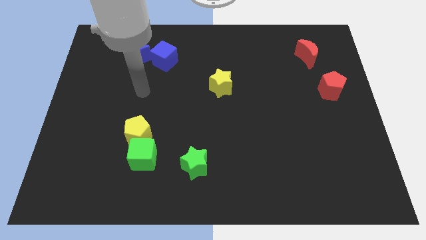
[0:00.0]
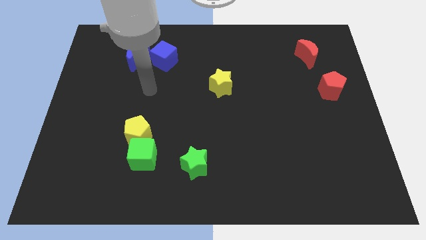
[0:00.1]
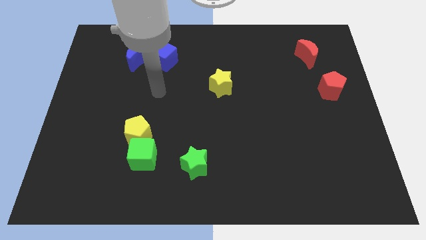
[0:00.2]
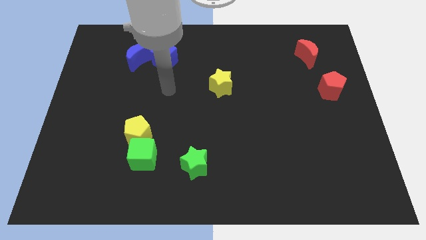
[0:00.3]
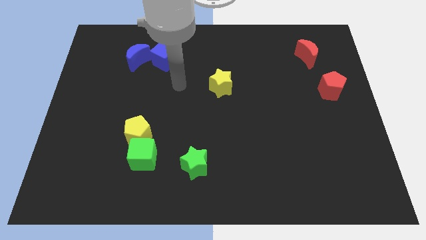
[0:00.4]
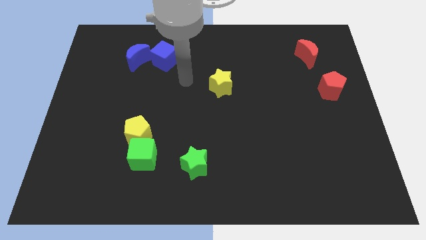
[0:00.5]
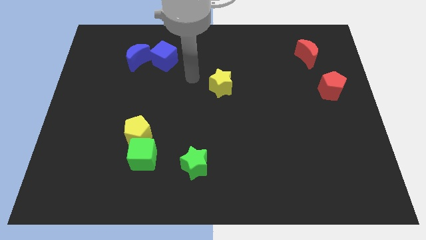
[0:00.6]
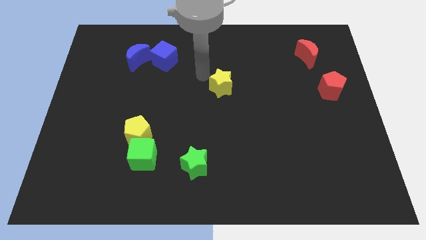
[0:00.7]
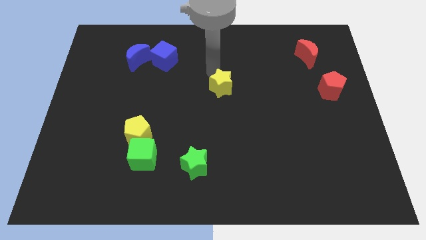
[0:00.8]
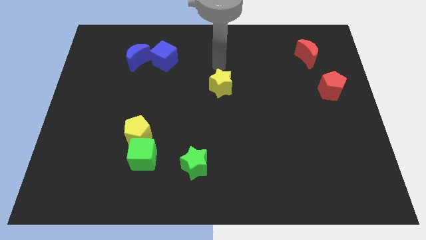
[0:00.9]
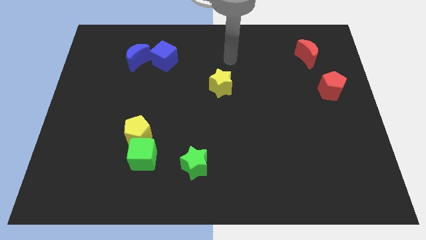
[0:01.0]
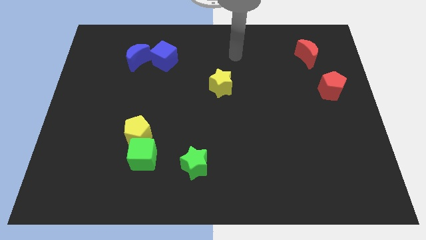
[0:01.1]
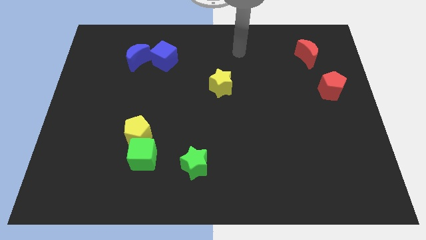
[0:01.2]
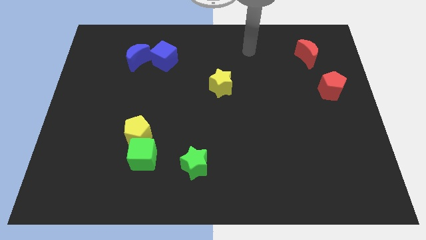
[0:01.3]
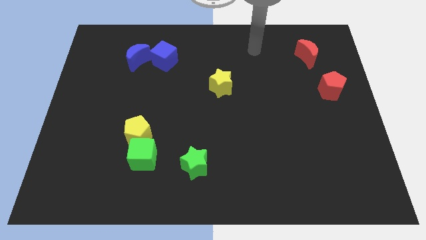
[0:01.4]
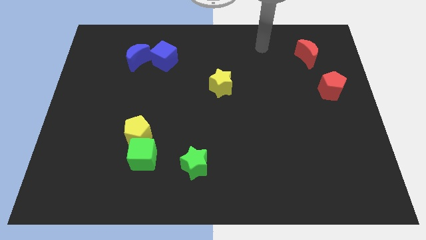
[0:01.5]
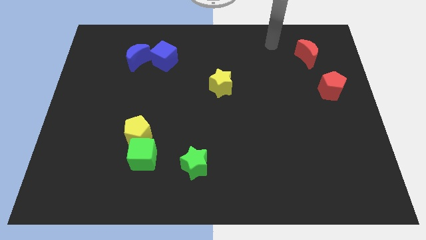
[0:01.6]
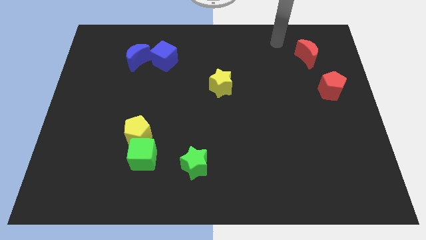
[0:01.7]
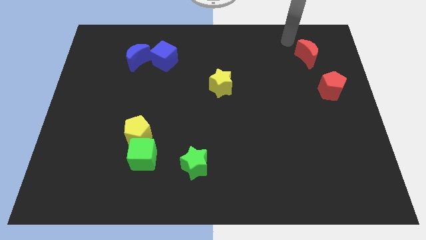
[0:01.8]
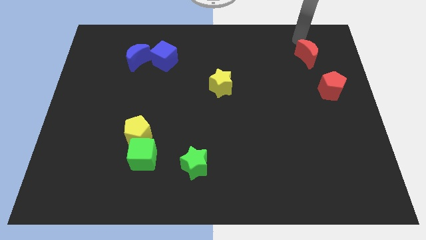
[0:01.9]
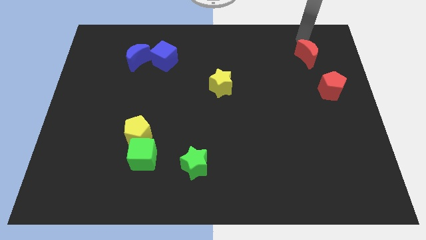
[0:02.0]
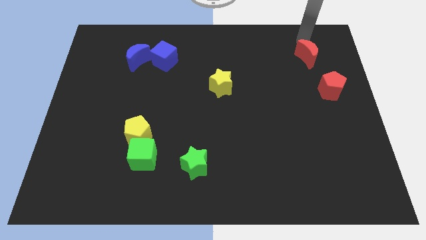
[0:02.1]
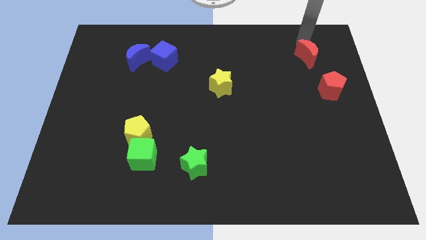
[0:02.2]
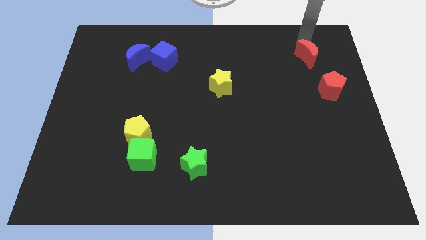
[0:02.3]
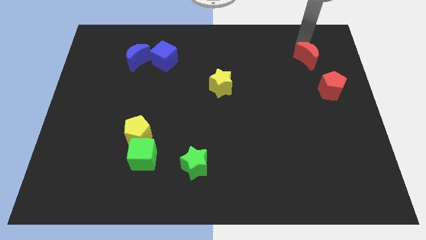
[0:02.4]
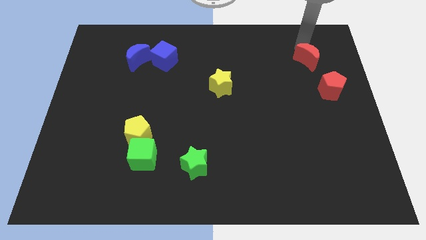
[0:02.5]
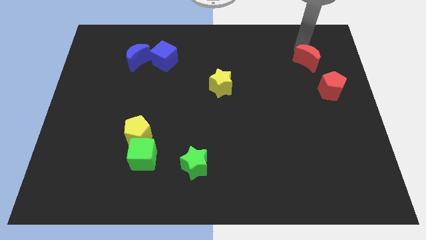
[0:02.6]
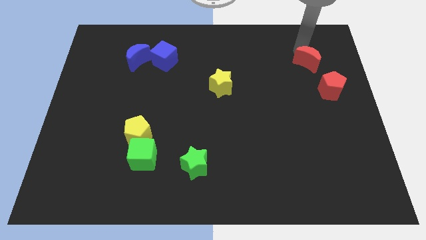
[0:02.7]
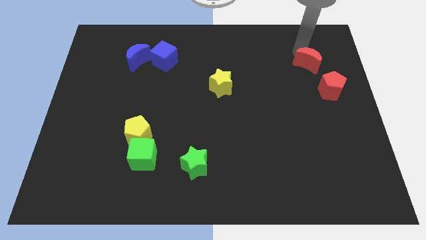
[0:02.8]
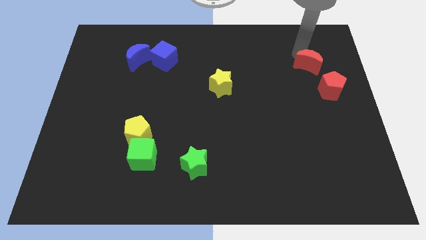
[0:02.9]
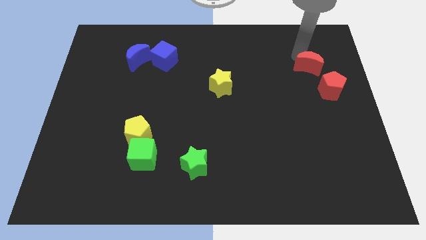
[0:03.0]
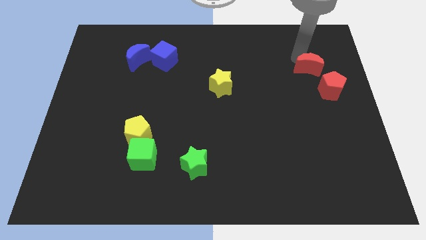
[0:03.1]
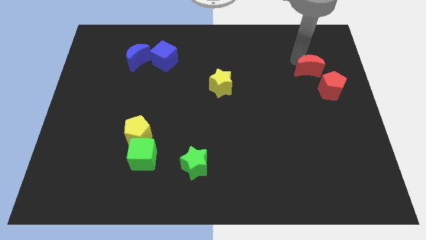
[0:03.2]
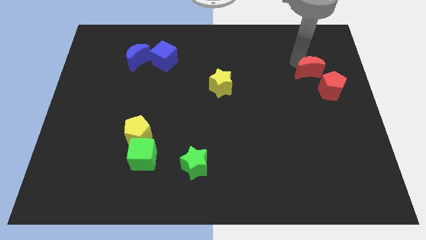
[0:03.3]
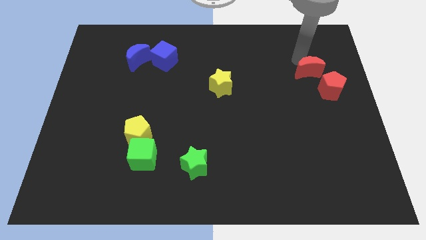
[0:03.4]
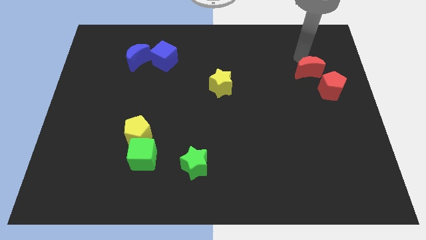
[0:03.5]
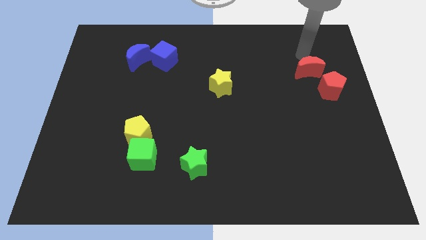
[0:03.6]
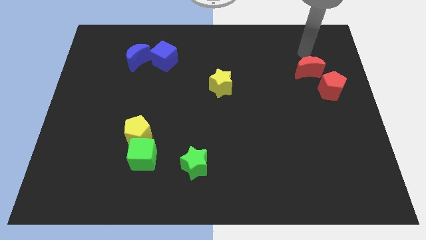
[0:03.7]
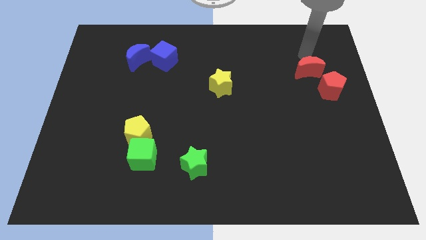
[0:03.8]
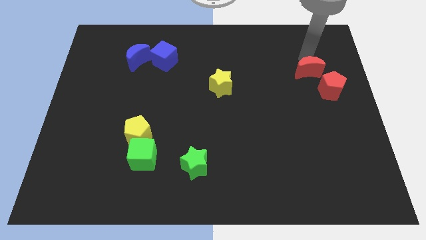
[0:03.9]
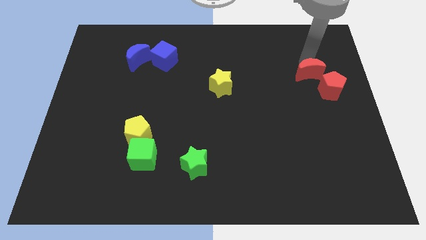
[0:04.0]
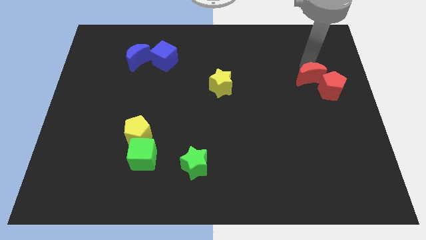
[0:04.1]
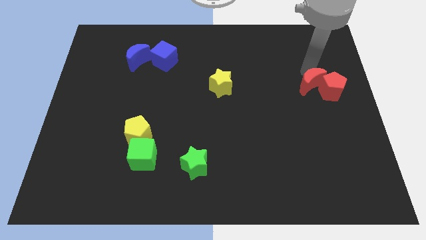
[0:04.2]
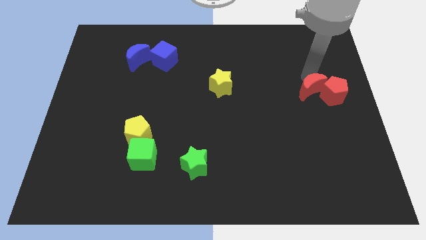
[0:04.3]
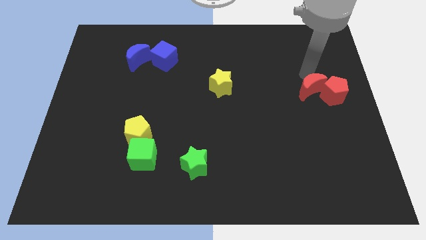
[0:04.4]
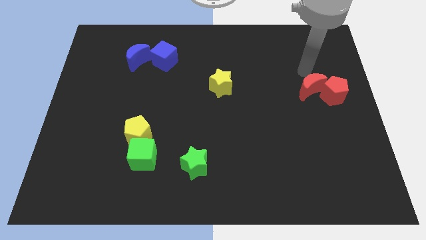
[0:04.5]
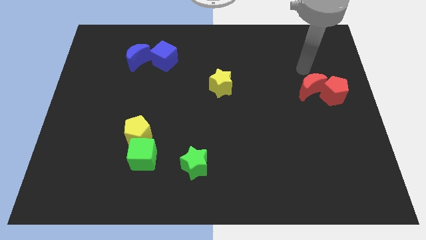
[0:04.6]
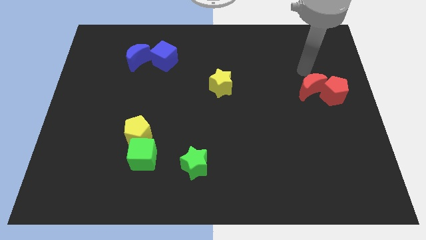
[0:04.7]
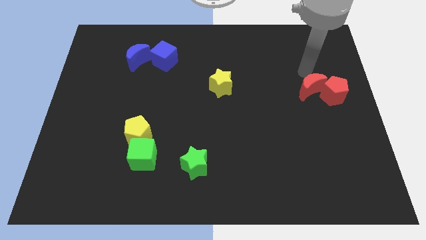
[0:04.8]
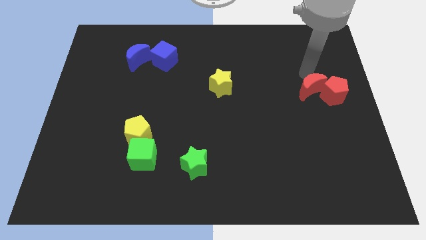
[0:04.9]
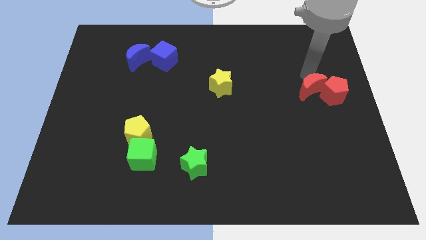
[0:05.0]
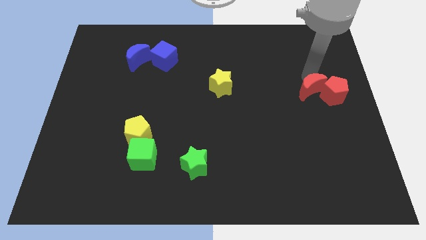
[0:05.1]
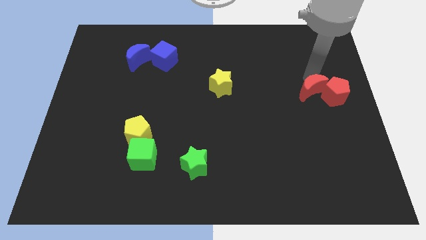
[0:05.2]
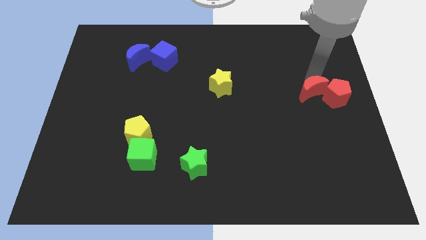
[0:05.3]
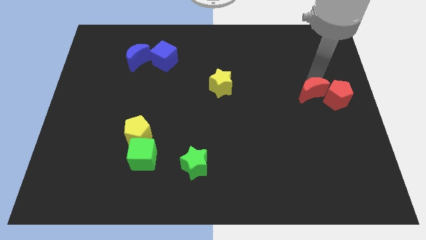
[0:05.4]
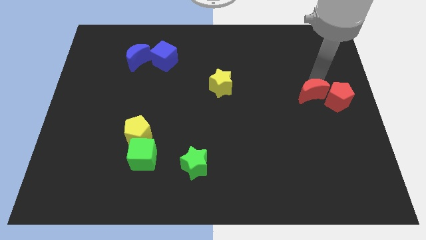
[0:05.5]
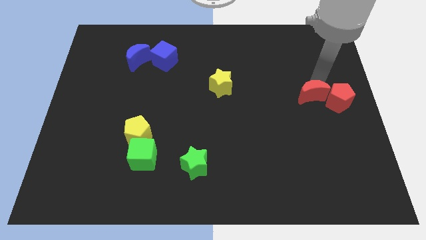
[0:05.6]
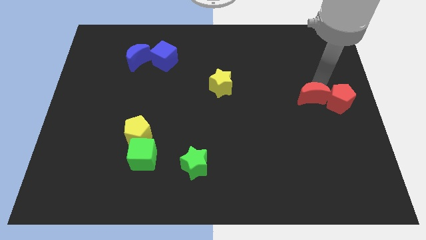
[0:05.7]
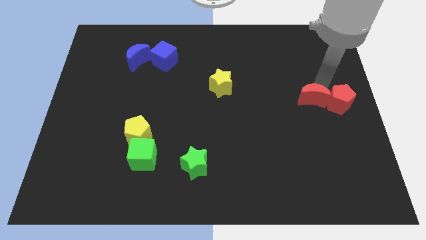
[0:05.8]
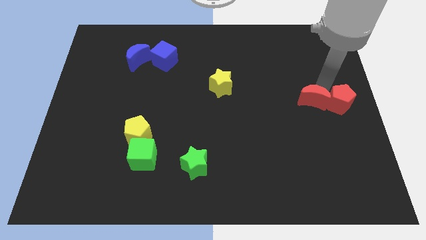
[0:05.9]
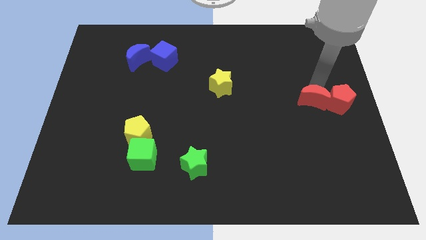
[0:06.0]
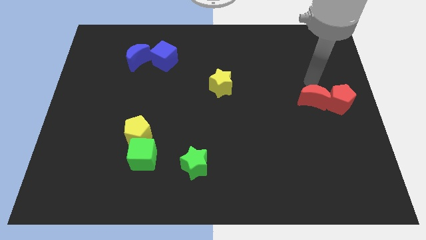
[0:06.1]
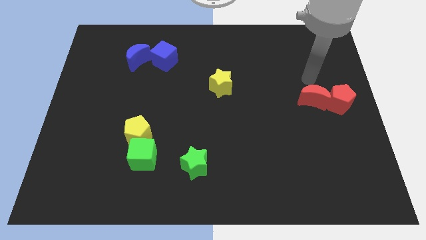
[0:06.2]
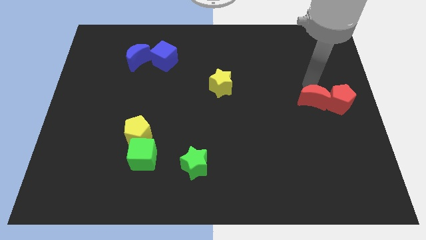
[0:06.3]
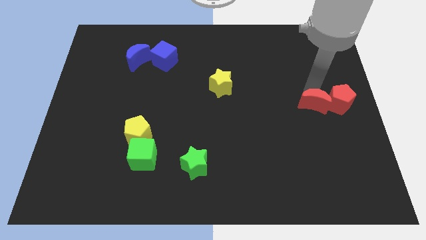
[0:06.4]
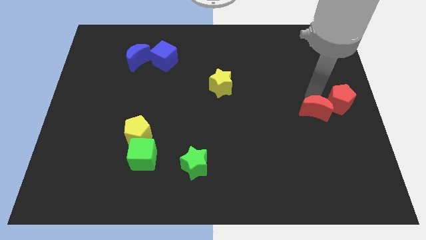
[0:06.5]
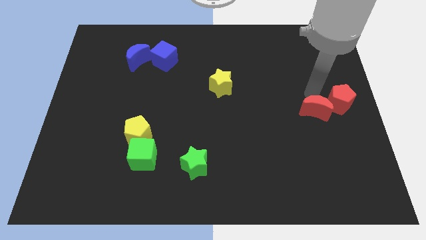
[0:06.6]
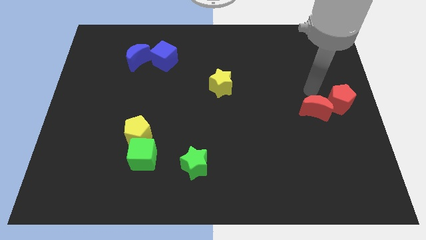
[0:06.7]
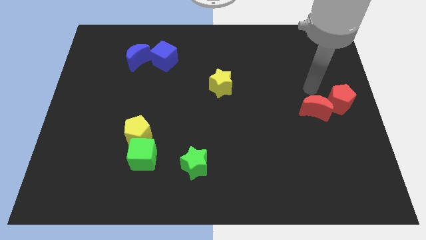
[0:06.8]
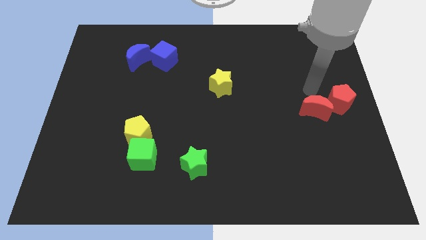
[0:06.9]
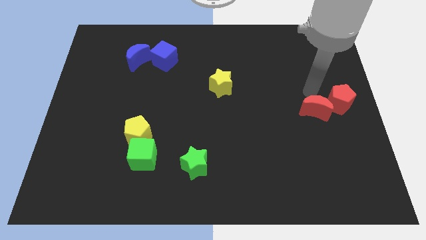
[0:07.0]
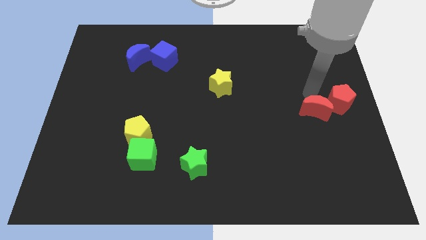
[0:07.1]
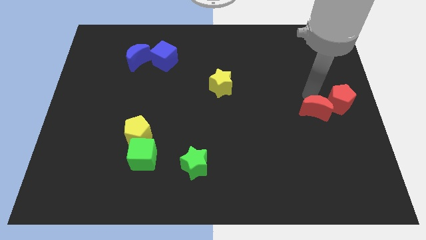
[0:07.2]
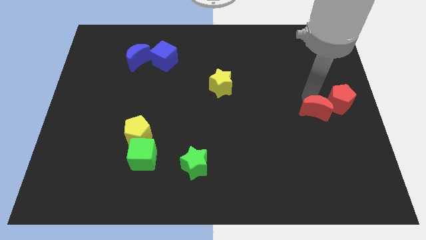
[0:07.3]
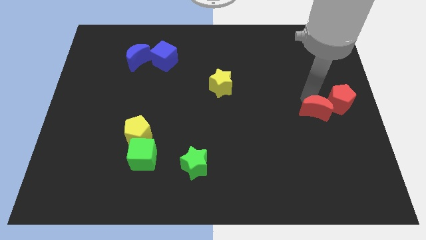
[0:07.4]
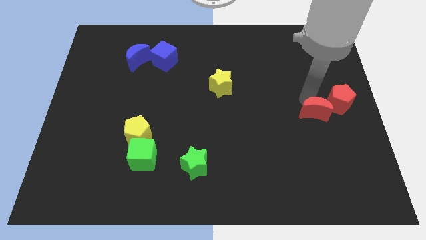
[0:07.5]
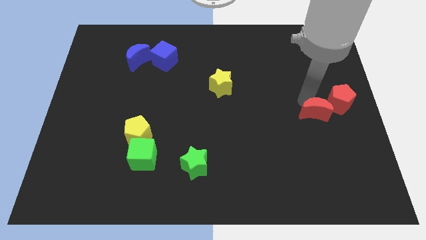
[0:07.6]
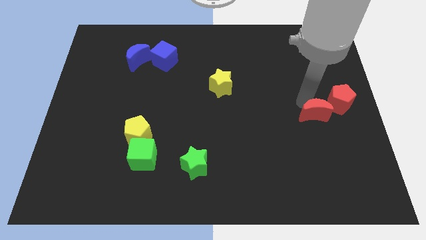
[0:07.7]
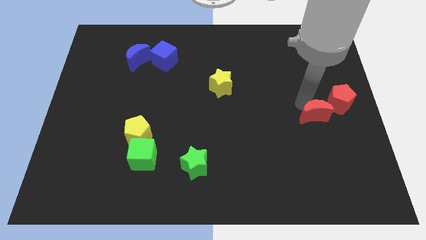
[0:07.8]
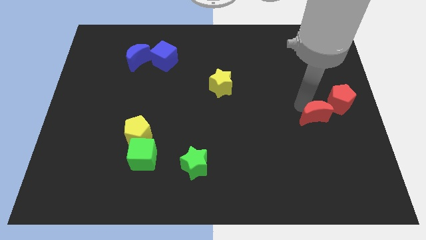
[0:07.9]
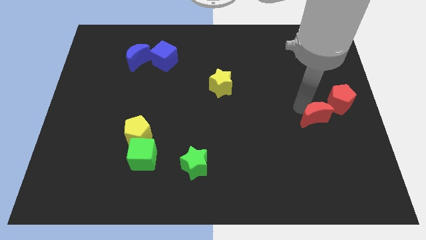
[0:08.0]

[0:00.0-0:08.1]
move the red moon downwards

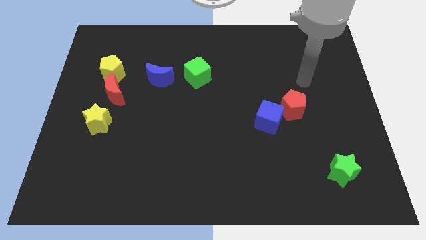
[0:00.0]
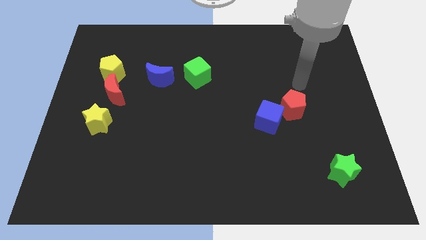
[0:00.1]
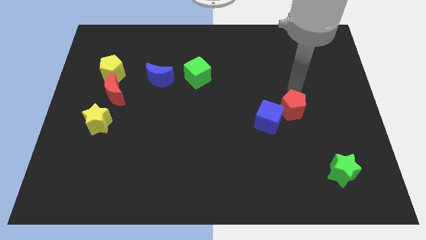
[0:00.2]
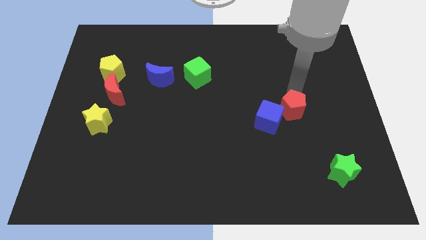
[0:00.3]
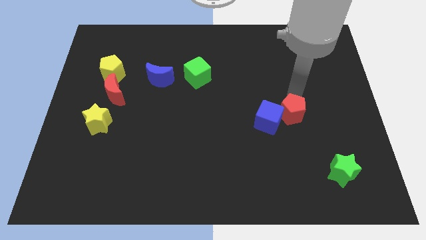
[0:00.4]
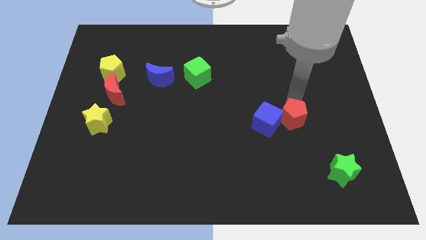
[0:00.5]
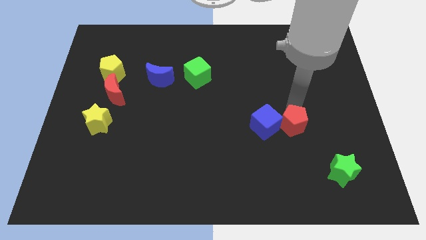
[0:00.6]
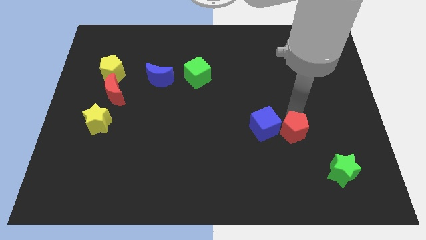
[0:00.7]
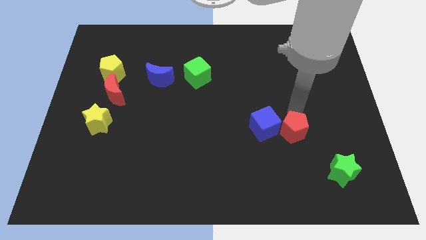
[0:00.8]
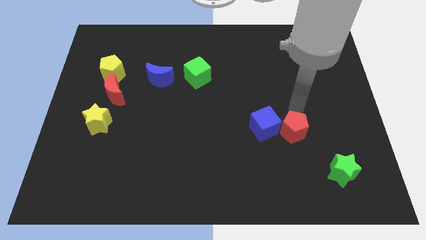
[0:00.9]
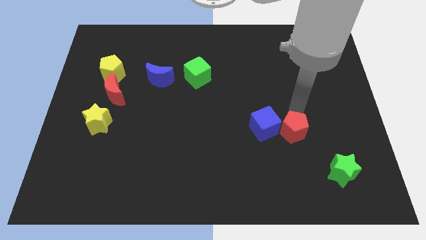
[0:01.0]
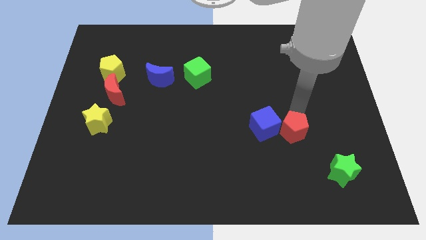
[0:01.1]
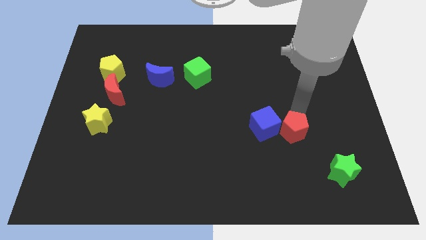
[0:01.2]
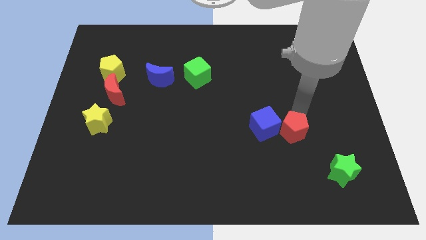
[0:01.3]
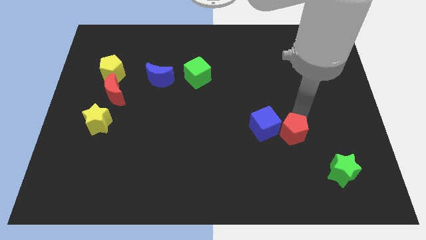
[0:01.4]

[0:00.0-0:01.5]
slightly push the red pentagon downwards
